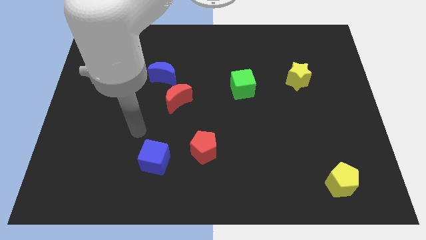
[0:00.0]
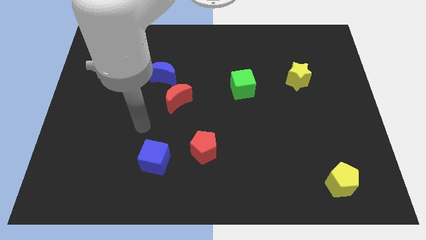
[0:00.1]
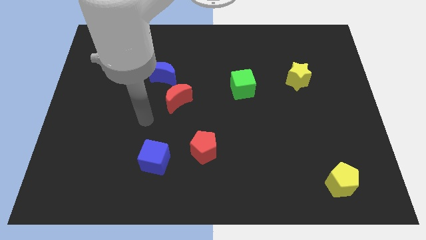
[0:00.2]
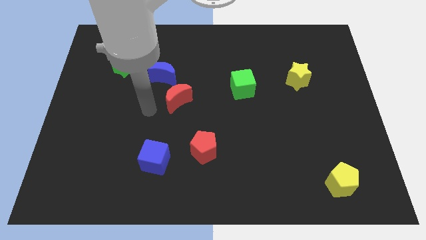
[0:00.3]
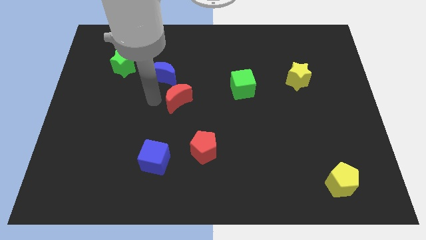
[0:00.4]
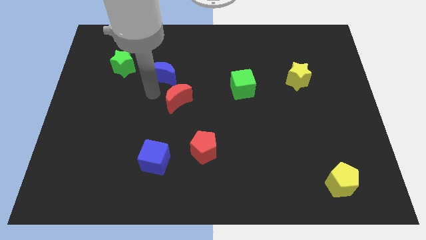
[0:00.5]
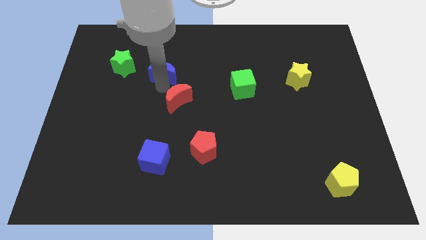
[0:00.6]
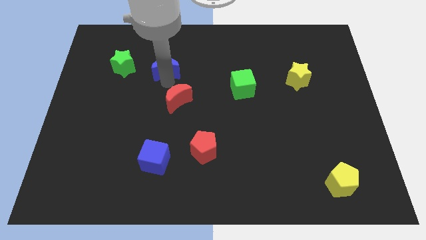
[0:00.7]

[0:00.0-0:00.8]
pull the red moon apart from the blue moon

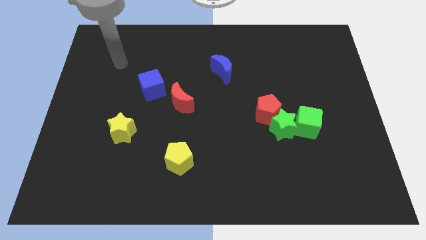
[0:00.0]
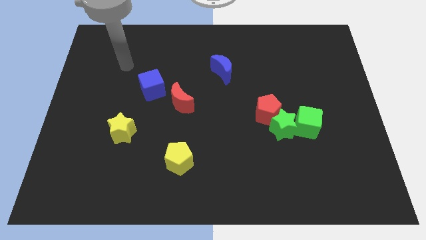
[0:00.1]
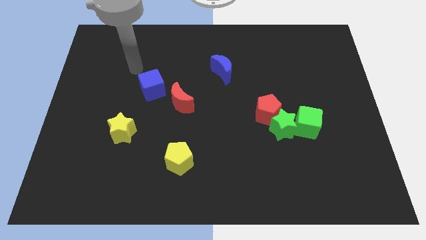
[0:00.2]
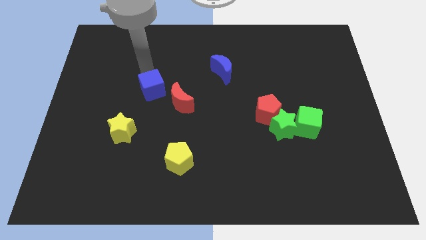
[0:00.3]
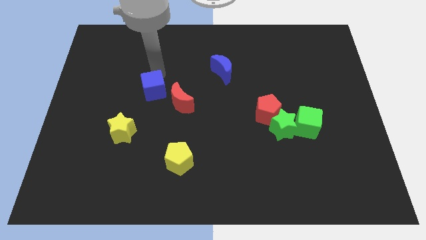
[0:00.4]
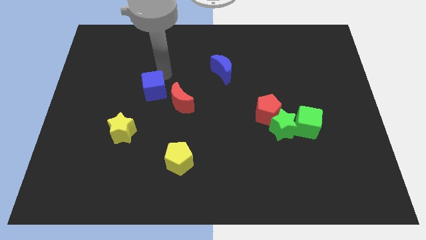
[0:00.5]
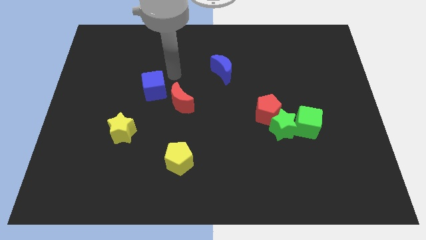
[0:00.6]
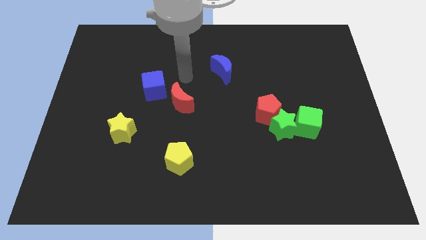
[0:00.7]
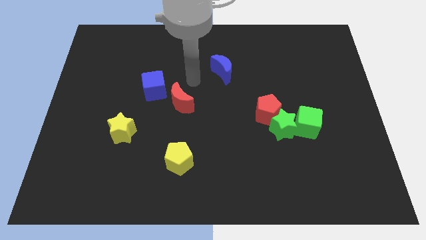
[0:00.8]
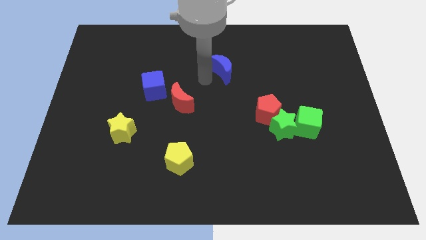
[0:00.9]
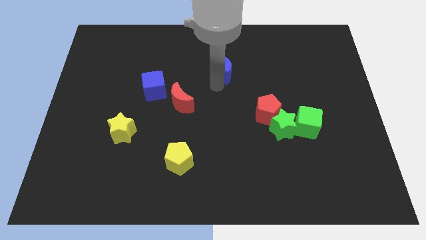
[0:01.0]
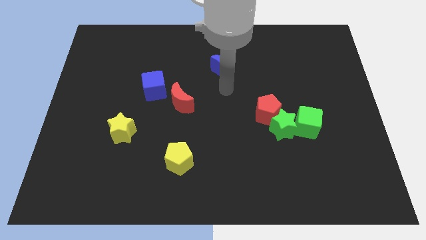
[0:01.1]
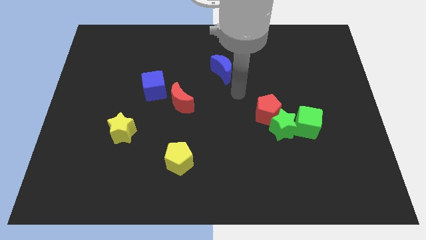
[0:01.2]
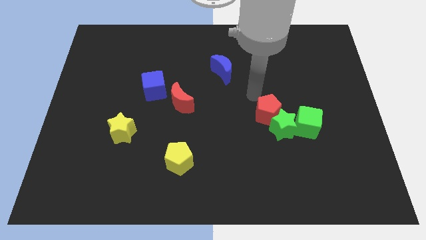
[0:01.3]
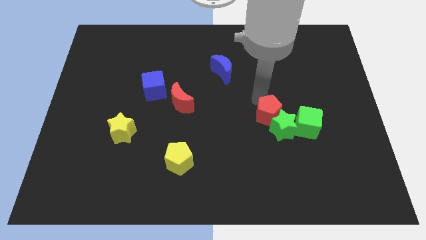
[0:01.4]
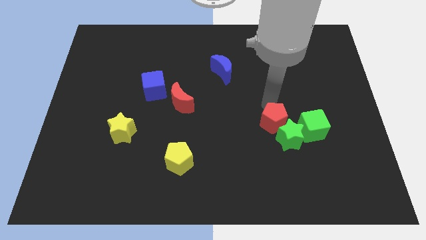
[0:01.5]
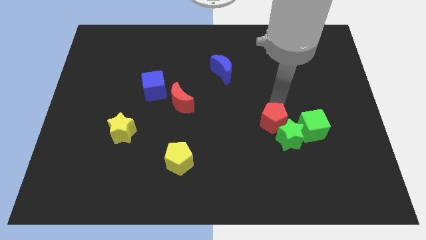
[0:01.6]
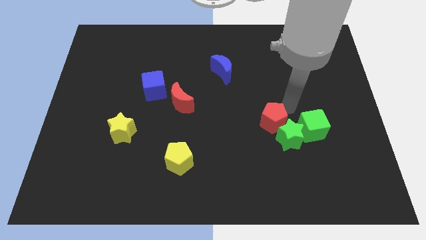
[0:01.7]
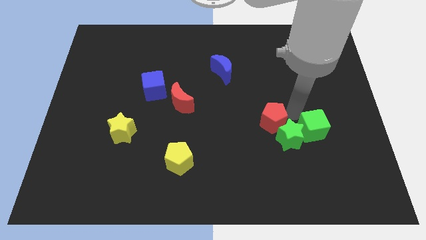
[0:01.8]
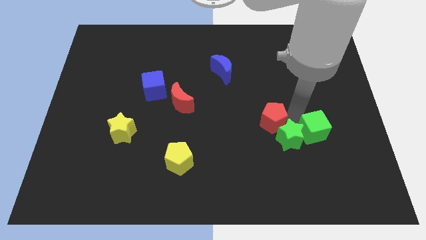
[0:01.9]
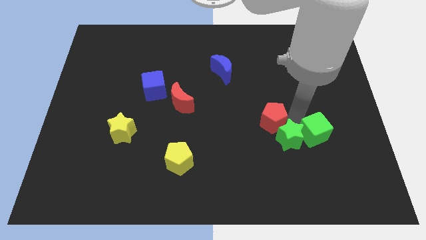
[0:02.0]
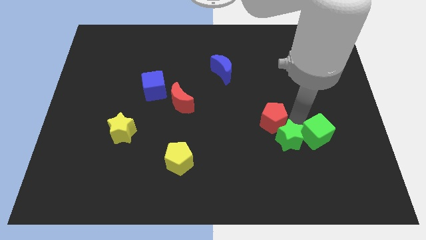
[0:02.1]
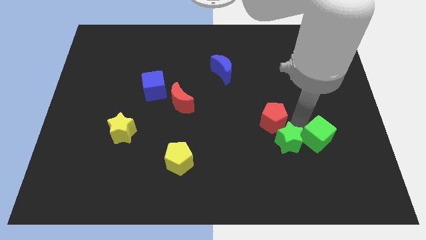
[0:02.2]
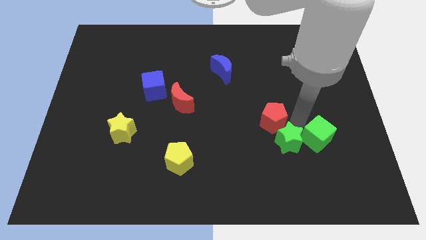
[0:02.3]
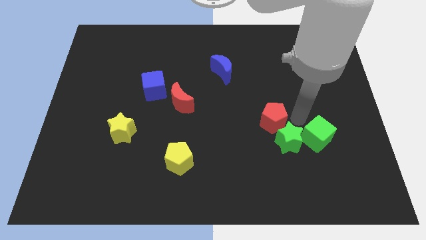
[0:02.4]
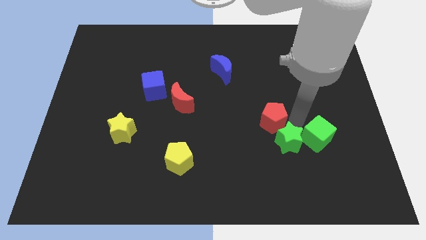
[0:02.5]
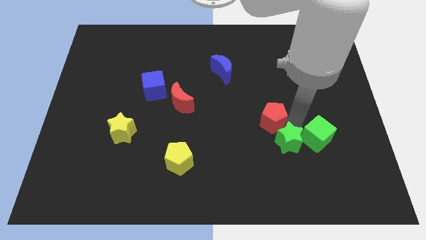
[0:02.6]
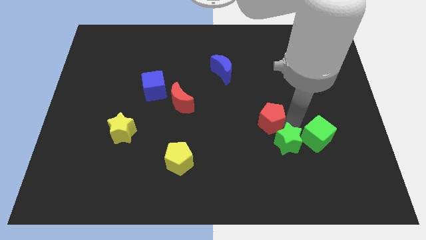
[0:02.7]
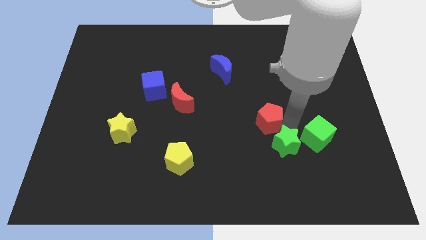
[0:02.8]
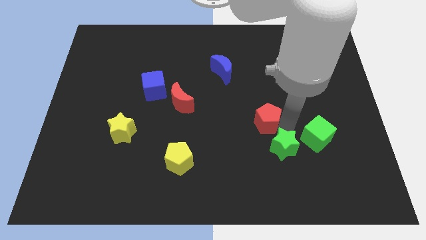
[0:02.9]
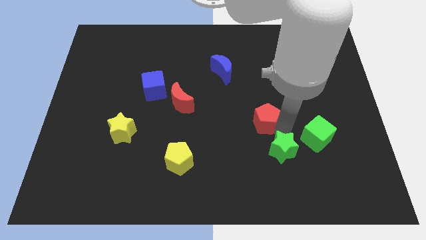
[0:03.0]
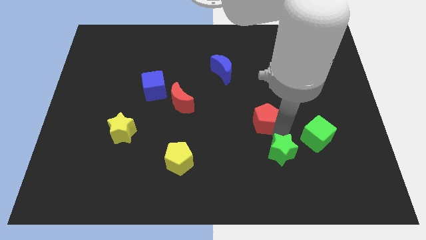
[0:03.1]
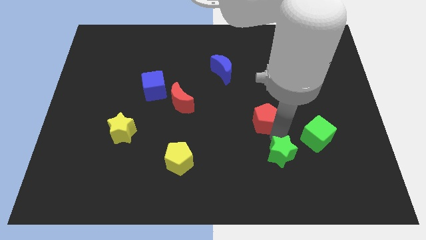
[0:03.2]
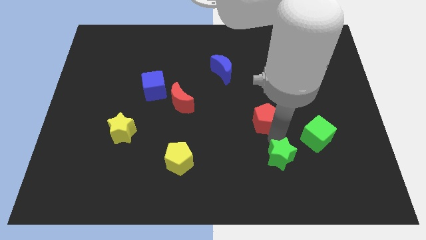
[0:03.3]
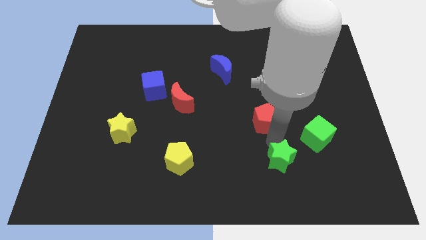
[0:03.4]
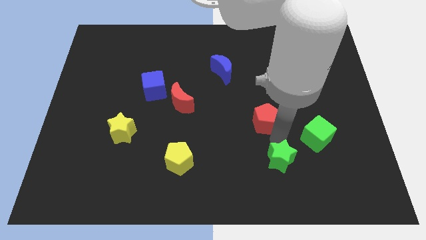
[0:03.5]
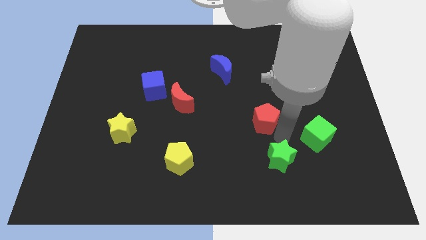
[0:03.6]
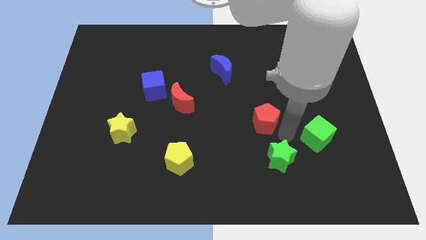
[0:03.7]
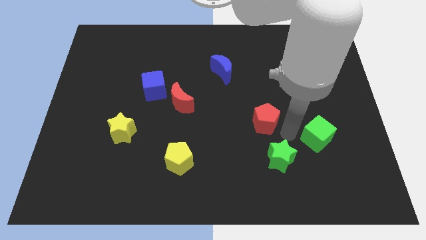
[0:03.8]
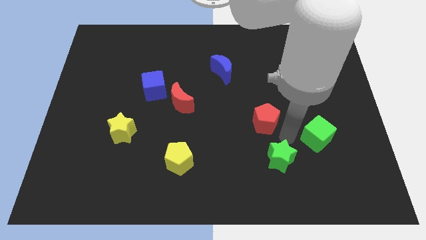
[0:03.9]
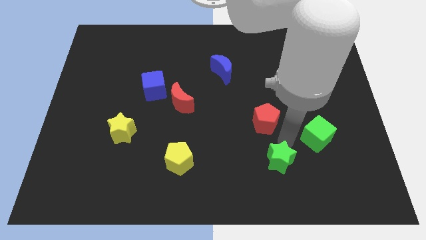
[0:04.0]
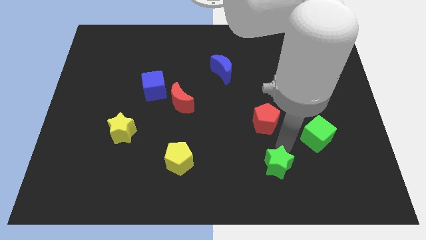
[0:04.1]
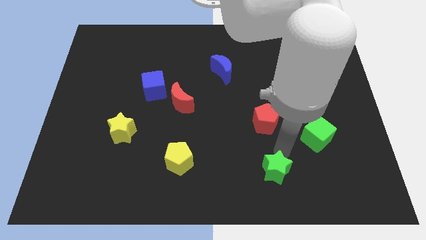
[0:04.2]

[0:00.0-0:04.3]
move the green star away from the red pentagon and green cube

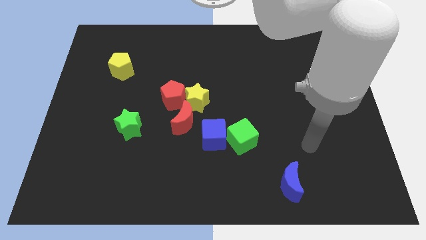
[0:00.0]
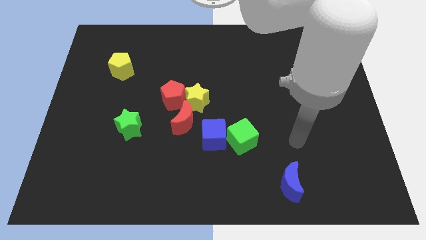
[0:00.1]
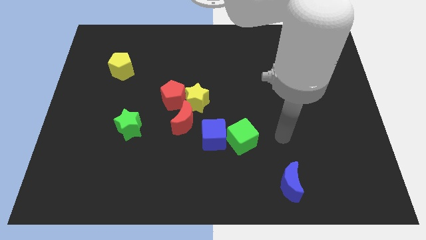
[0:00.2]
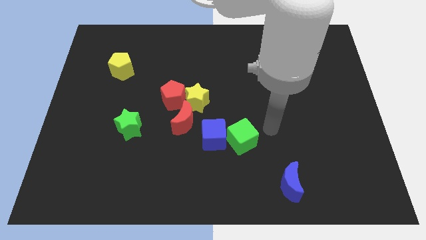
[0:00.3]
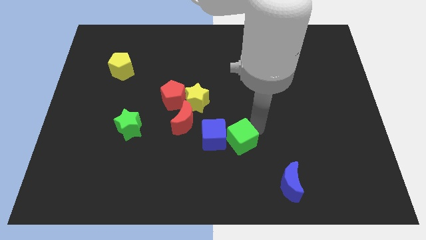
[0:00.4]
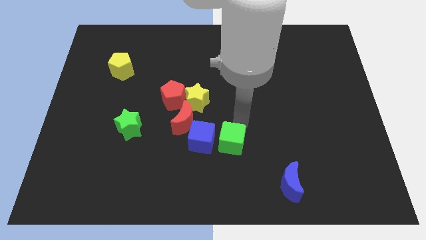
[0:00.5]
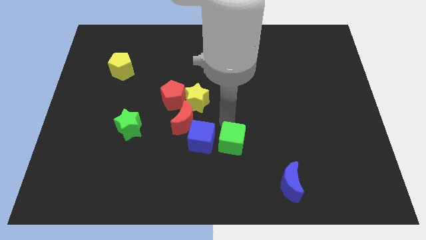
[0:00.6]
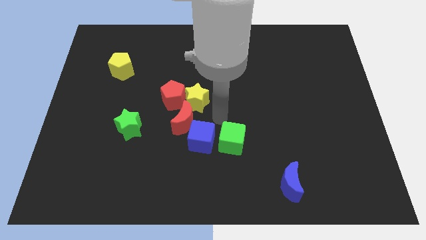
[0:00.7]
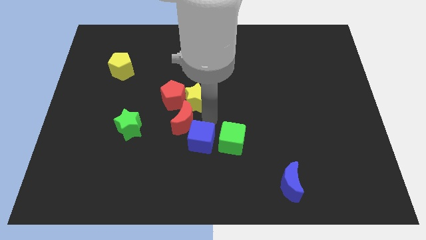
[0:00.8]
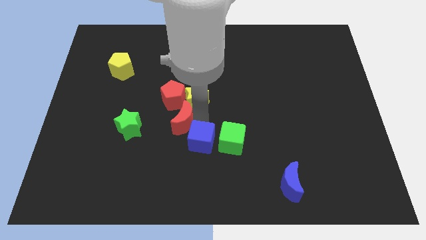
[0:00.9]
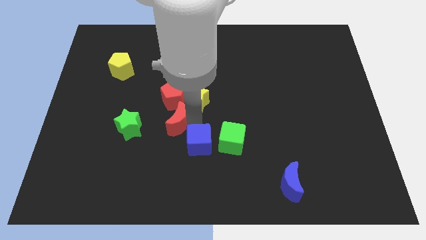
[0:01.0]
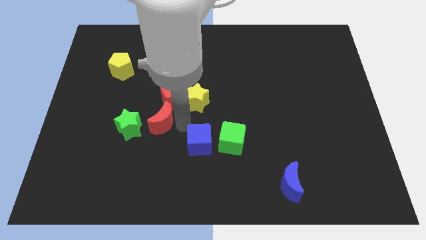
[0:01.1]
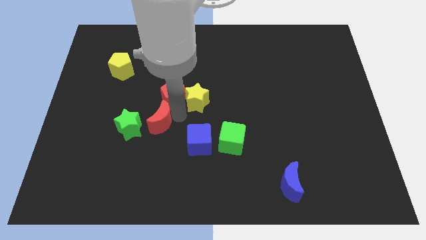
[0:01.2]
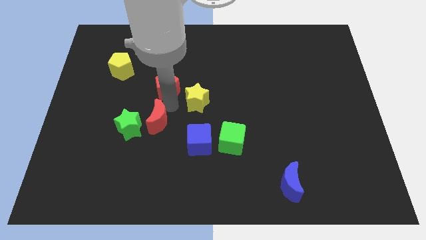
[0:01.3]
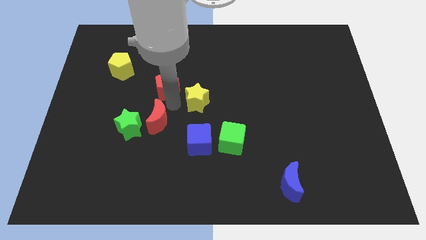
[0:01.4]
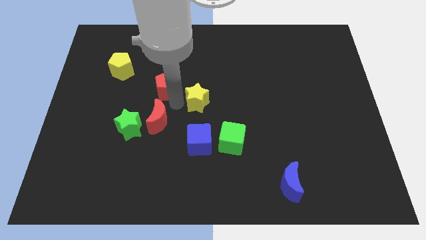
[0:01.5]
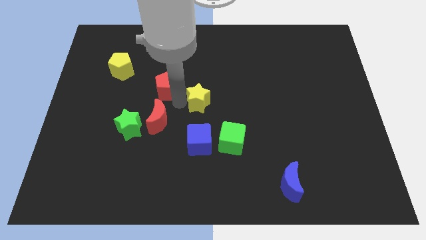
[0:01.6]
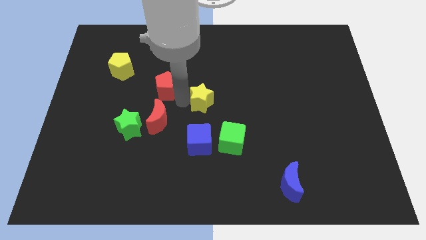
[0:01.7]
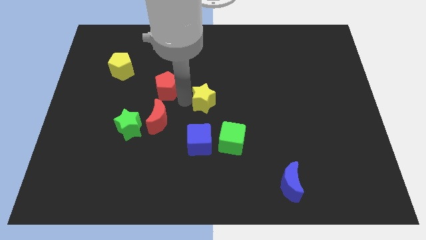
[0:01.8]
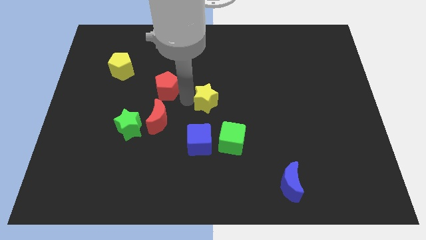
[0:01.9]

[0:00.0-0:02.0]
separate the yellow star from the red pentagon and red moon

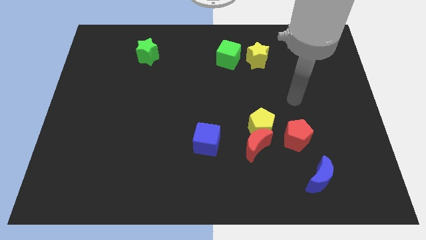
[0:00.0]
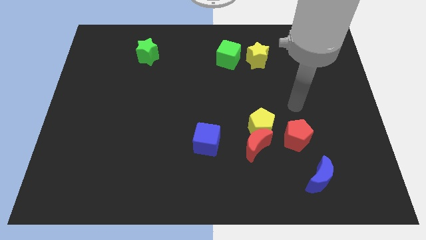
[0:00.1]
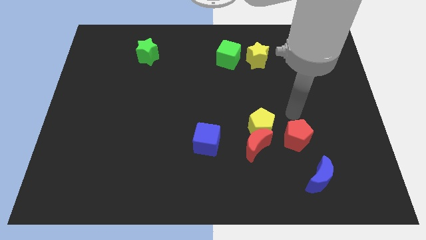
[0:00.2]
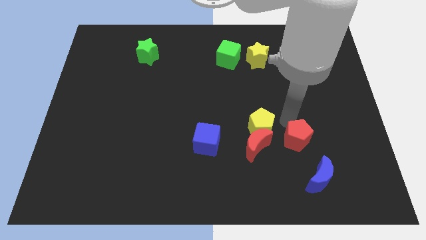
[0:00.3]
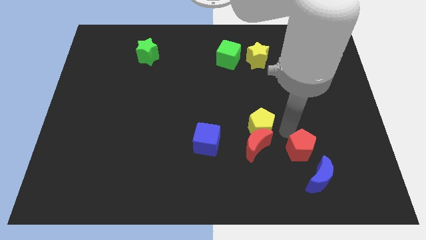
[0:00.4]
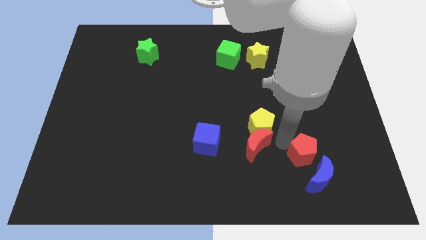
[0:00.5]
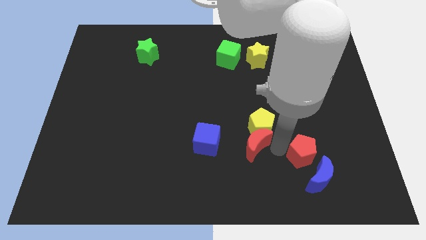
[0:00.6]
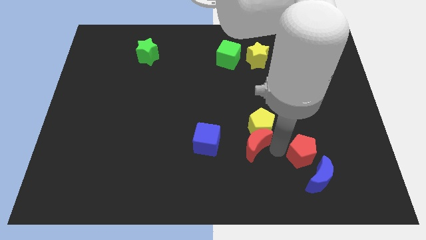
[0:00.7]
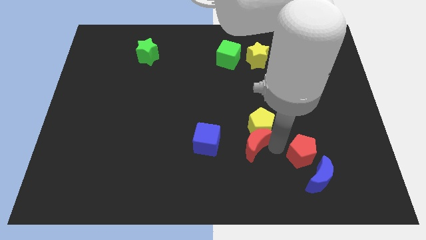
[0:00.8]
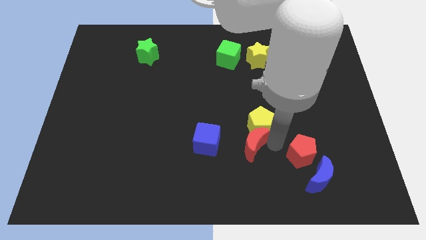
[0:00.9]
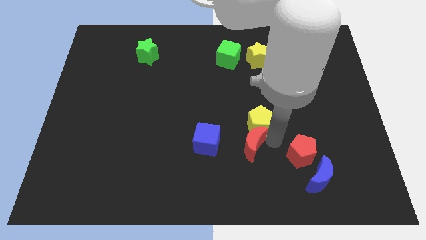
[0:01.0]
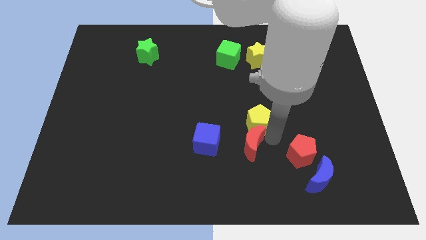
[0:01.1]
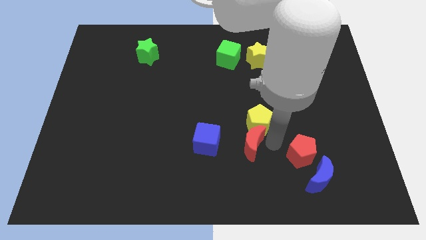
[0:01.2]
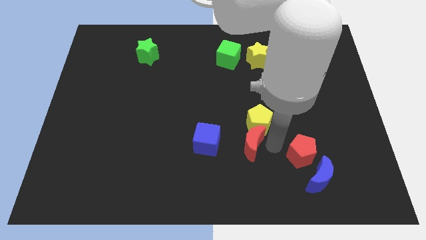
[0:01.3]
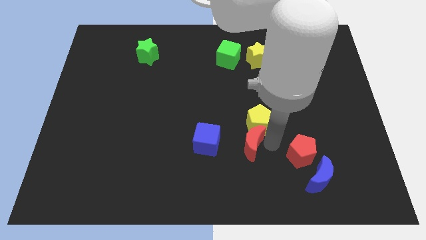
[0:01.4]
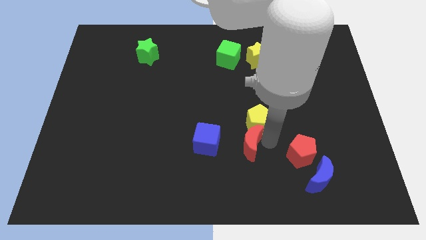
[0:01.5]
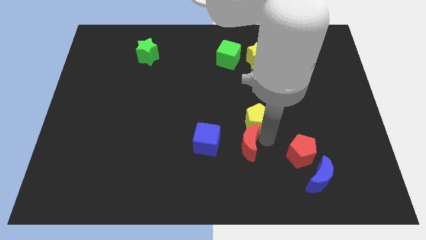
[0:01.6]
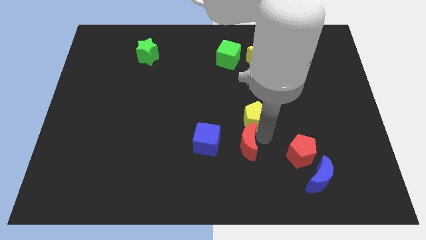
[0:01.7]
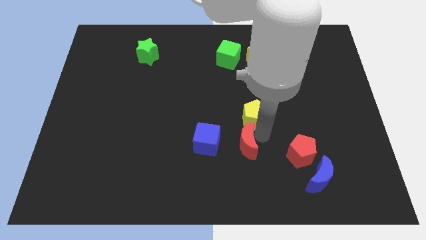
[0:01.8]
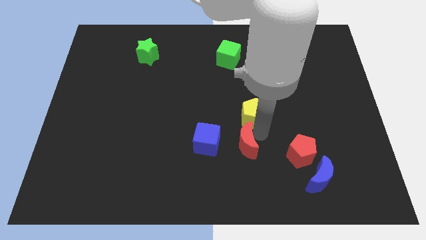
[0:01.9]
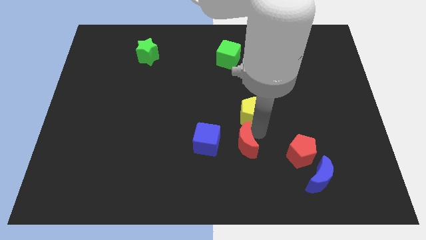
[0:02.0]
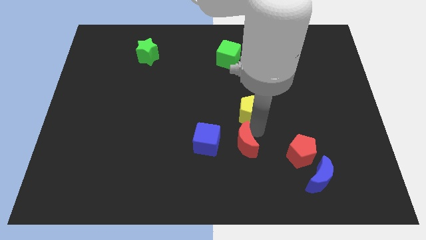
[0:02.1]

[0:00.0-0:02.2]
move the yellow pentagon away from the red moon and red pentagon
